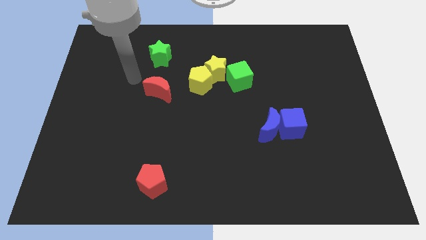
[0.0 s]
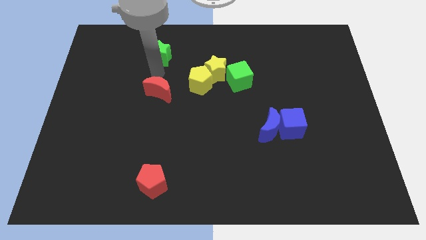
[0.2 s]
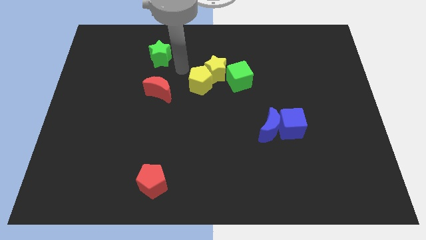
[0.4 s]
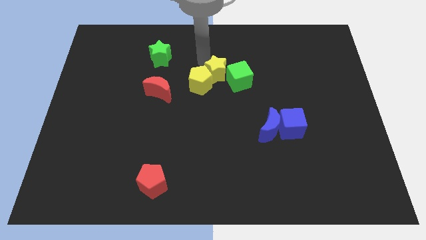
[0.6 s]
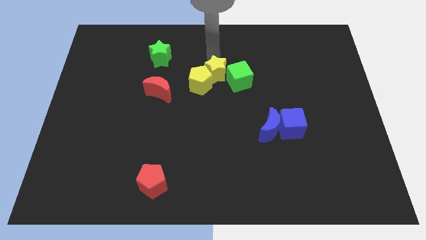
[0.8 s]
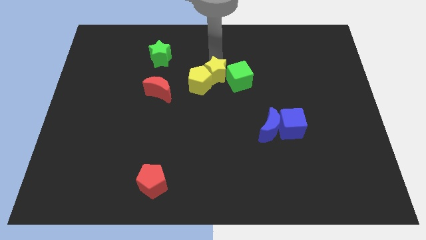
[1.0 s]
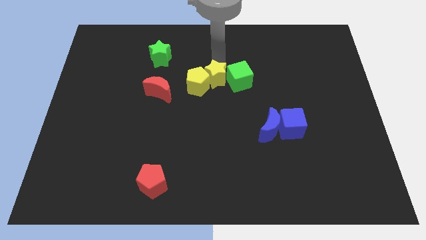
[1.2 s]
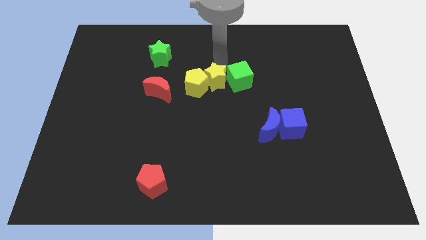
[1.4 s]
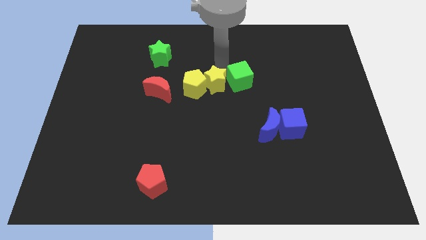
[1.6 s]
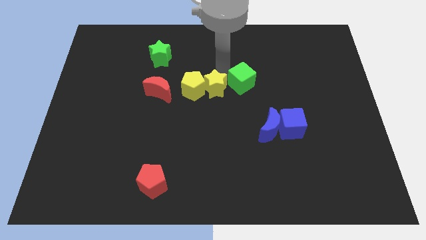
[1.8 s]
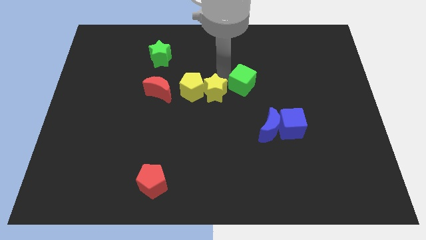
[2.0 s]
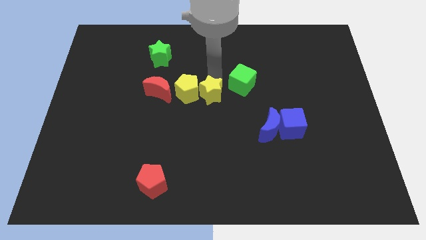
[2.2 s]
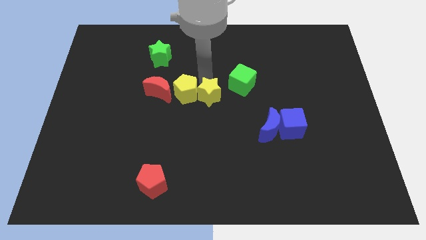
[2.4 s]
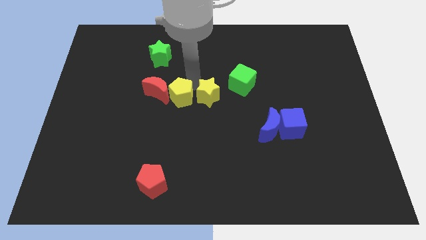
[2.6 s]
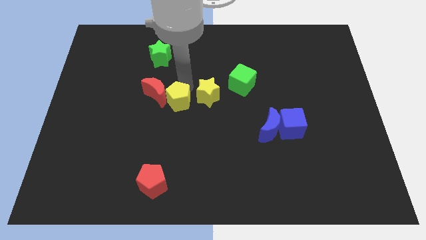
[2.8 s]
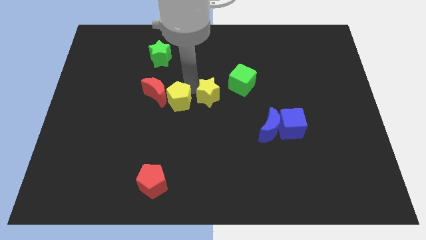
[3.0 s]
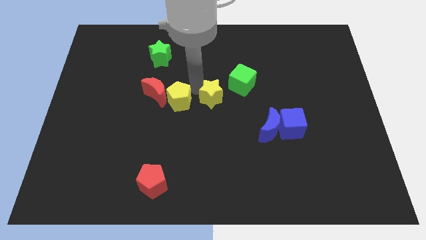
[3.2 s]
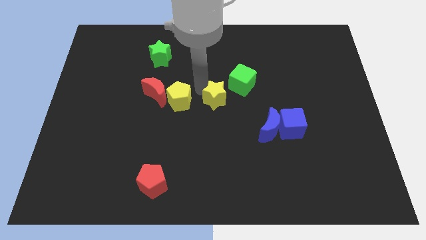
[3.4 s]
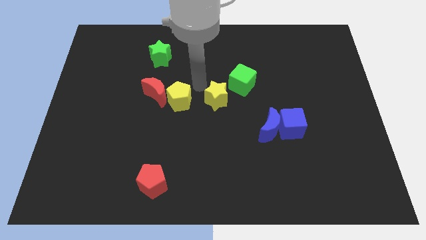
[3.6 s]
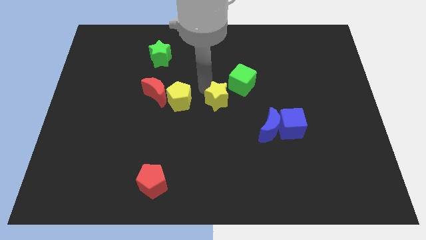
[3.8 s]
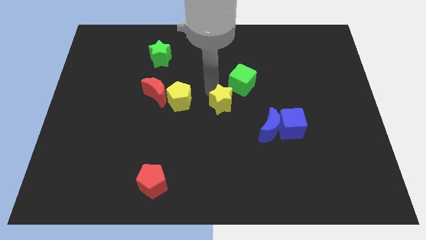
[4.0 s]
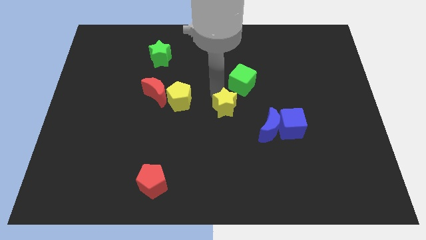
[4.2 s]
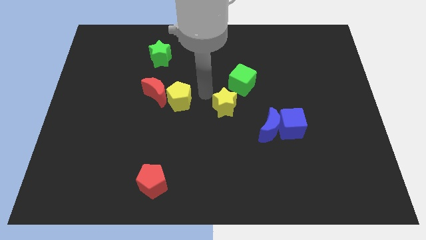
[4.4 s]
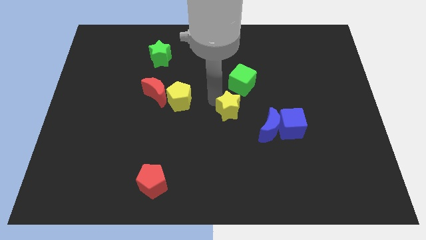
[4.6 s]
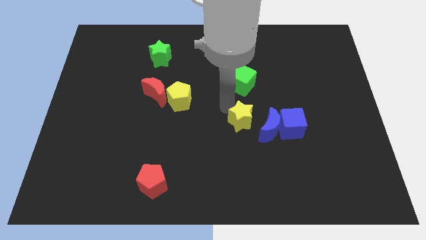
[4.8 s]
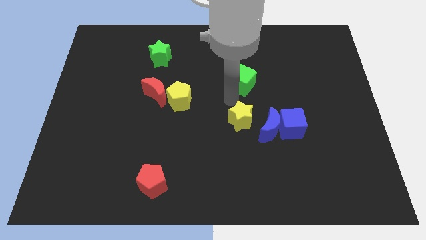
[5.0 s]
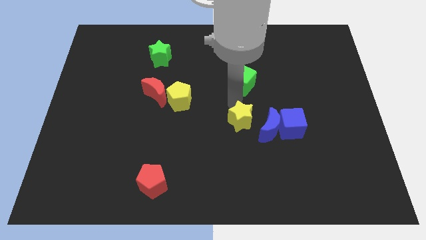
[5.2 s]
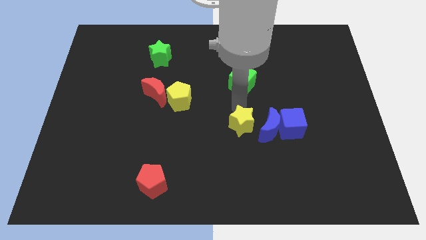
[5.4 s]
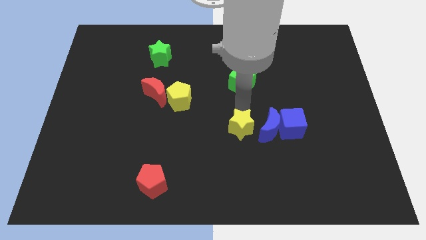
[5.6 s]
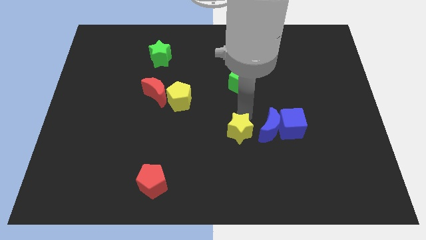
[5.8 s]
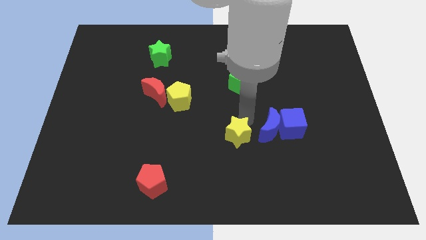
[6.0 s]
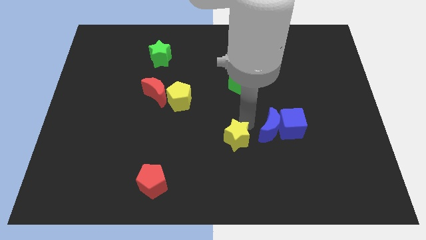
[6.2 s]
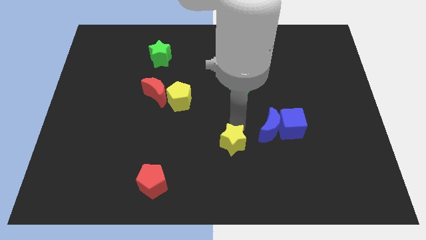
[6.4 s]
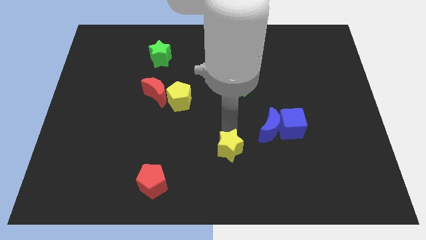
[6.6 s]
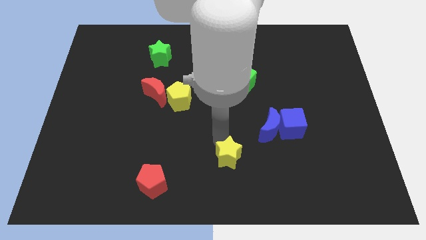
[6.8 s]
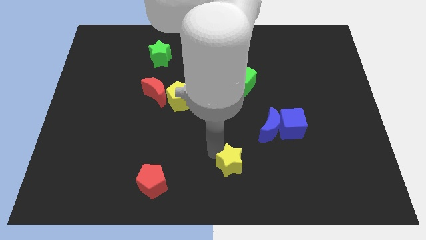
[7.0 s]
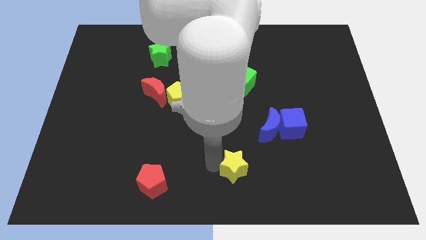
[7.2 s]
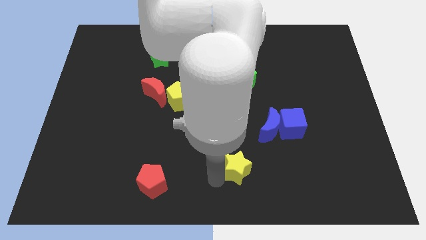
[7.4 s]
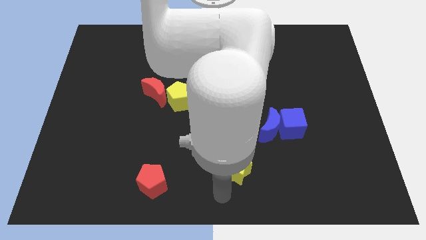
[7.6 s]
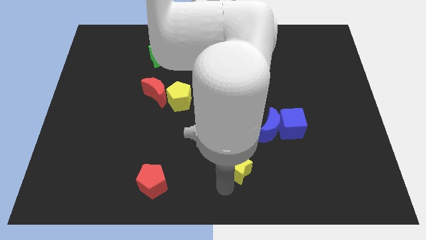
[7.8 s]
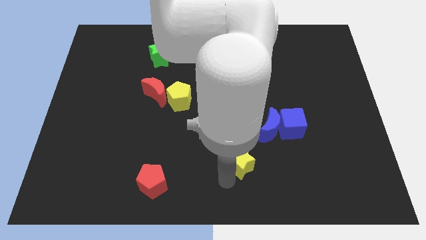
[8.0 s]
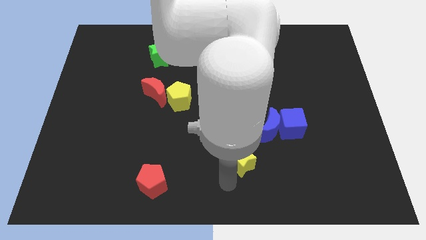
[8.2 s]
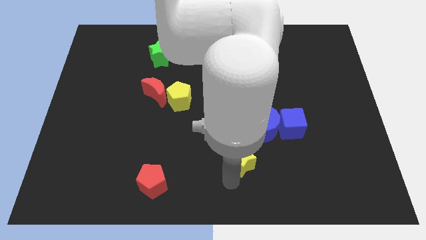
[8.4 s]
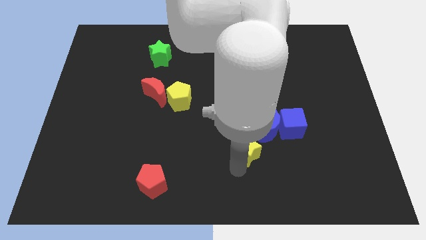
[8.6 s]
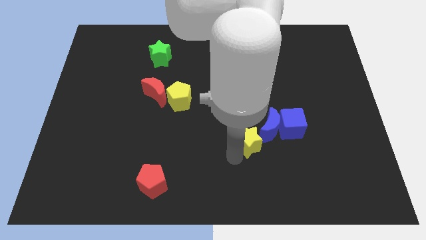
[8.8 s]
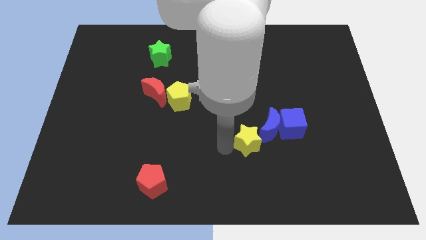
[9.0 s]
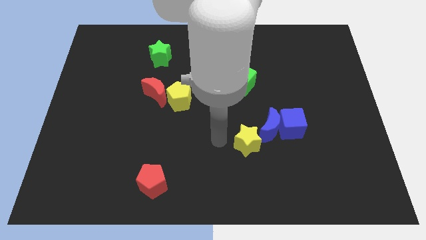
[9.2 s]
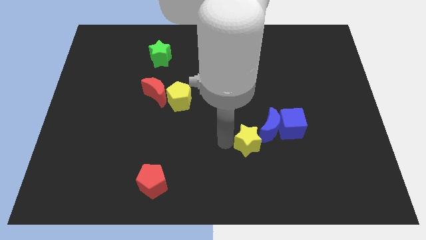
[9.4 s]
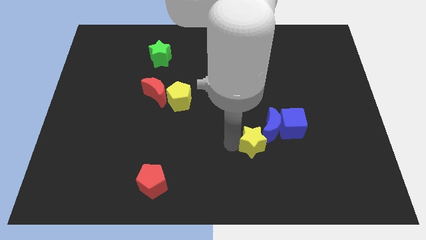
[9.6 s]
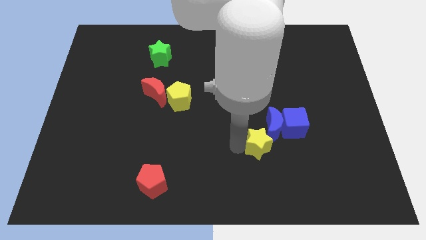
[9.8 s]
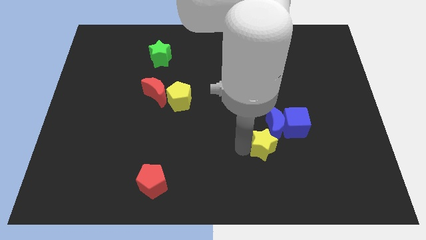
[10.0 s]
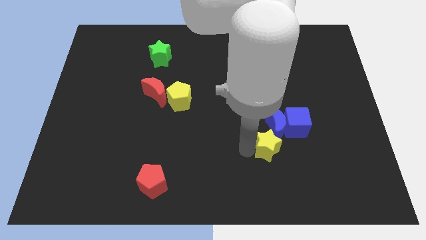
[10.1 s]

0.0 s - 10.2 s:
push the yellow star downwards and then to the right

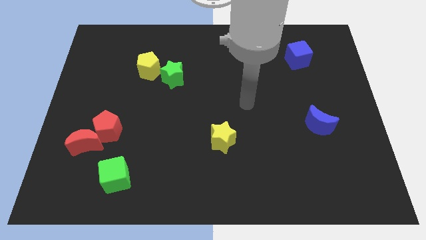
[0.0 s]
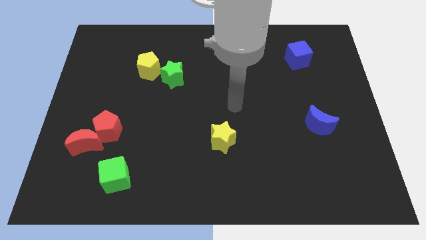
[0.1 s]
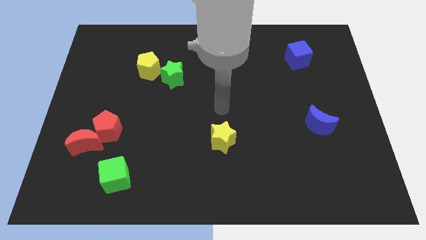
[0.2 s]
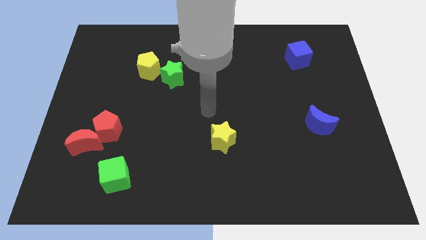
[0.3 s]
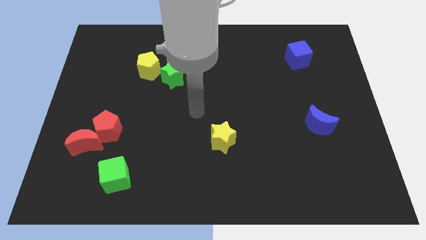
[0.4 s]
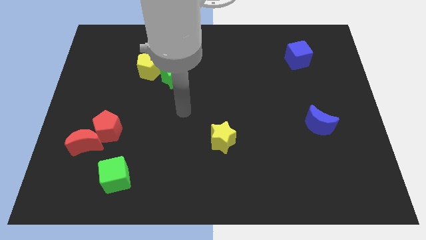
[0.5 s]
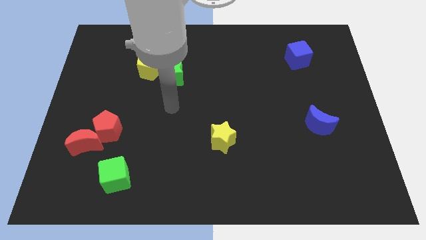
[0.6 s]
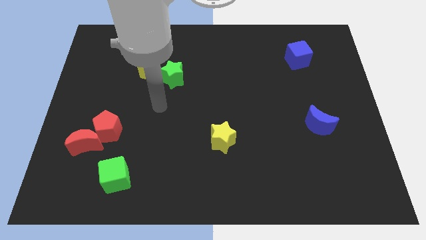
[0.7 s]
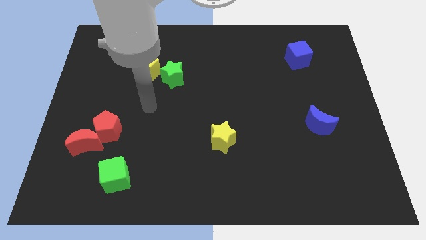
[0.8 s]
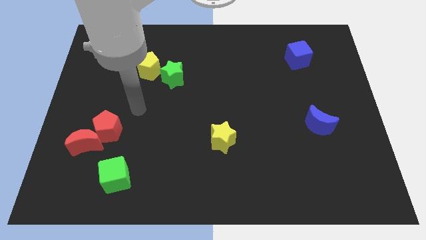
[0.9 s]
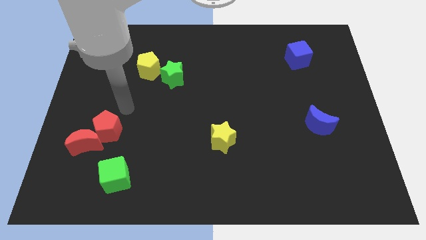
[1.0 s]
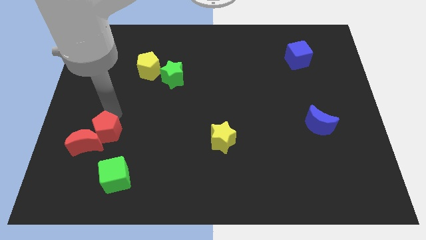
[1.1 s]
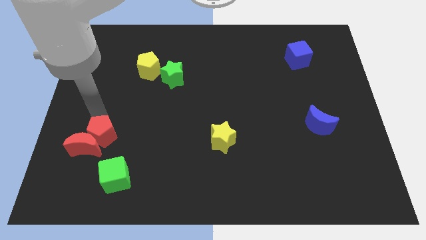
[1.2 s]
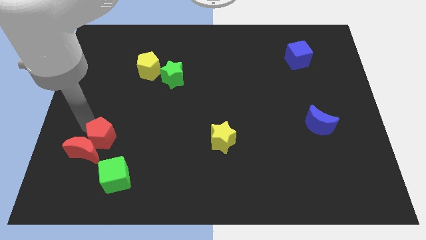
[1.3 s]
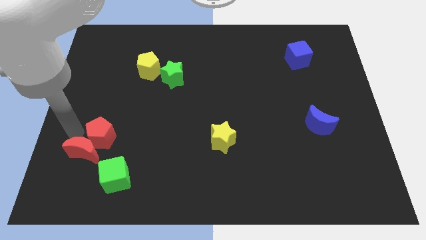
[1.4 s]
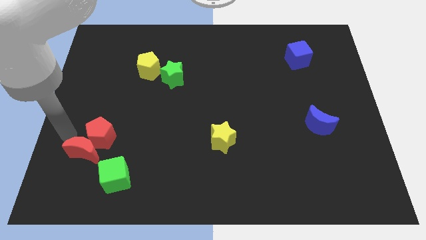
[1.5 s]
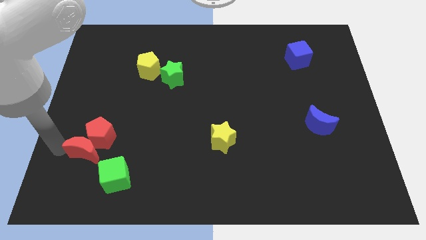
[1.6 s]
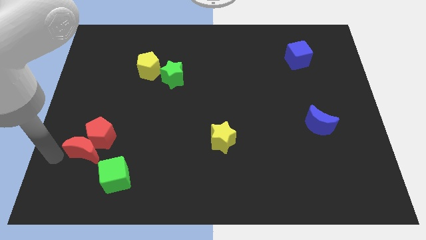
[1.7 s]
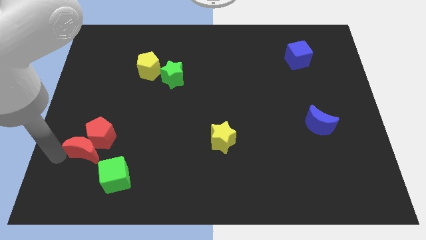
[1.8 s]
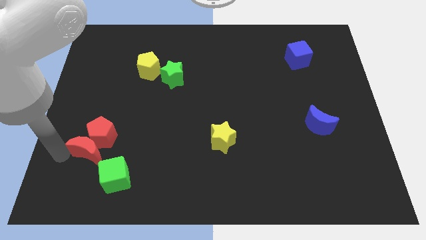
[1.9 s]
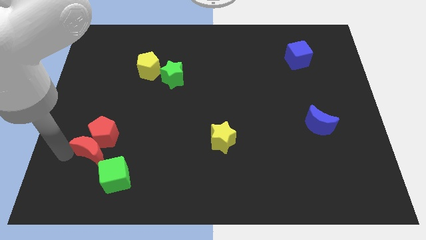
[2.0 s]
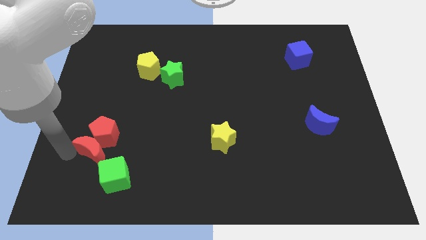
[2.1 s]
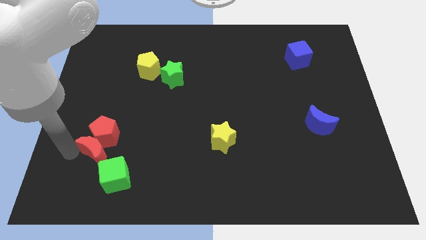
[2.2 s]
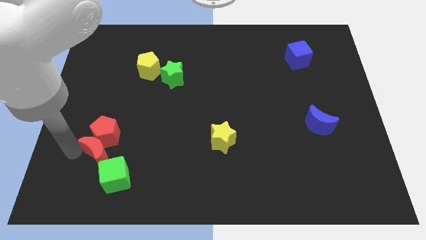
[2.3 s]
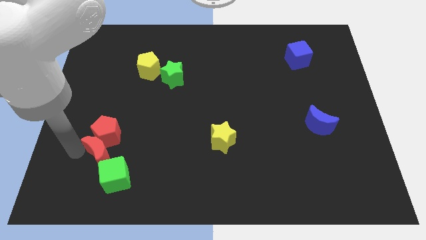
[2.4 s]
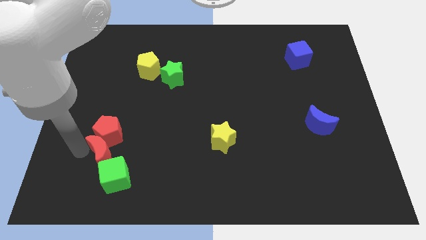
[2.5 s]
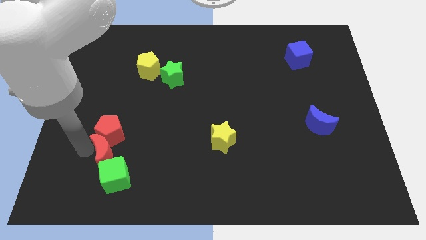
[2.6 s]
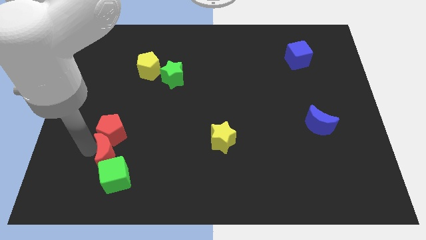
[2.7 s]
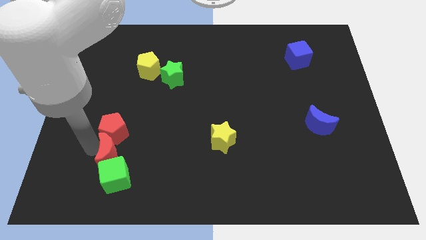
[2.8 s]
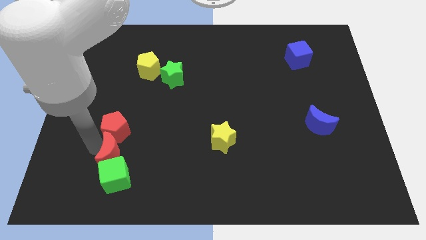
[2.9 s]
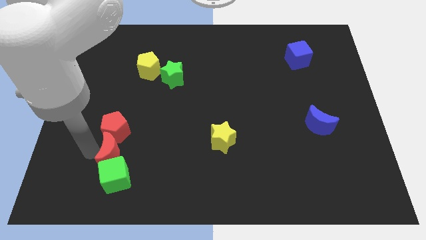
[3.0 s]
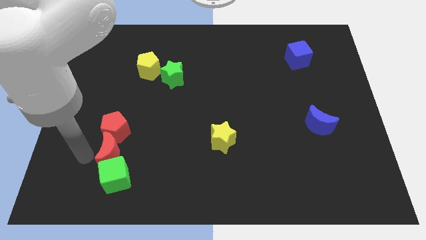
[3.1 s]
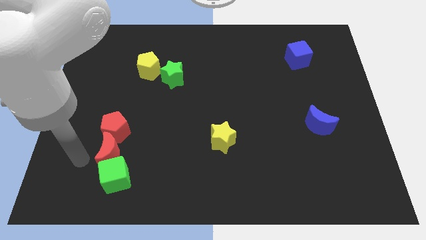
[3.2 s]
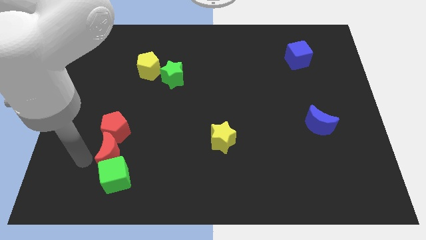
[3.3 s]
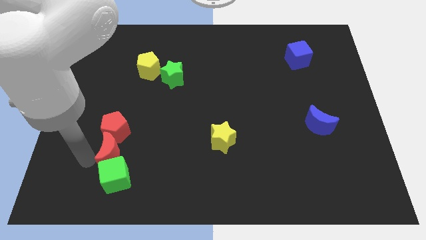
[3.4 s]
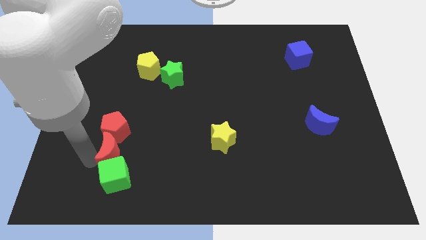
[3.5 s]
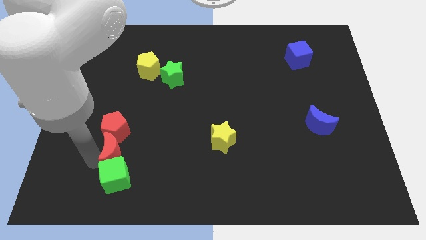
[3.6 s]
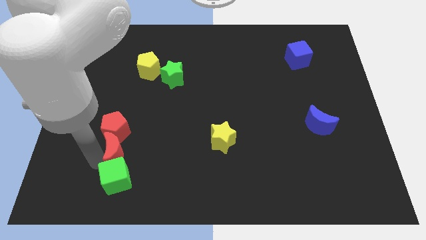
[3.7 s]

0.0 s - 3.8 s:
push the red moon right a little
